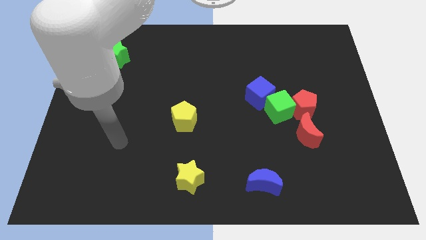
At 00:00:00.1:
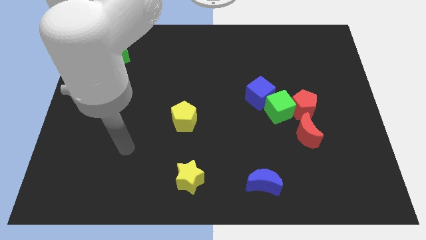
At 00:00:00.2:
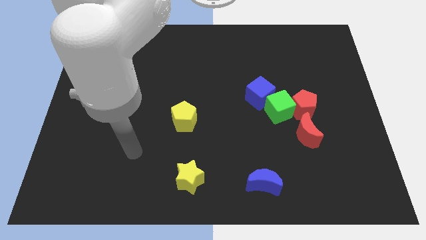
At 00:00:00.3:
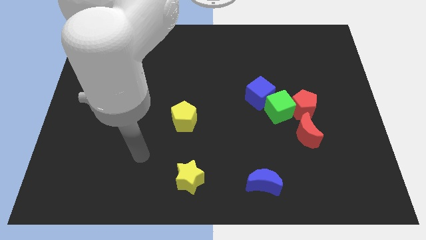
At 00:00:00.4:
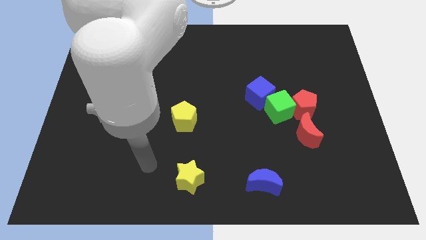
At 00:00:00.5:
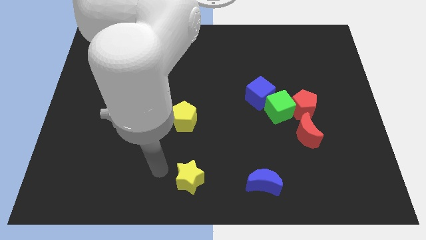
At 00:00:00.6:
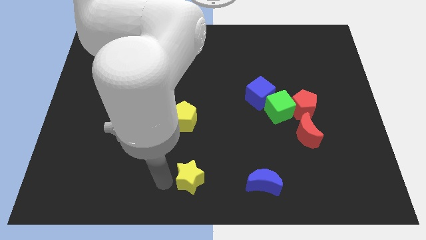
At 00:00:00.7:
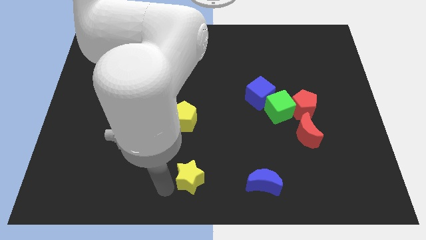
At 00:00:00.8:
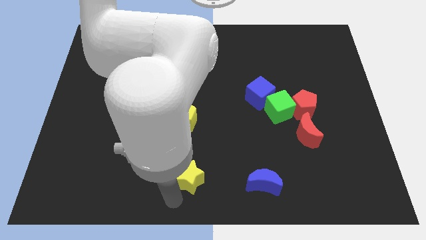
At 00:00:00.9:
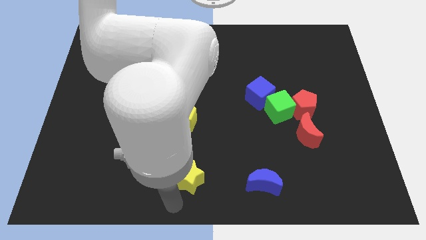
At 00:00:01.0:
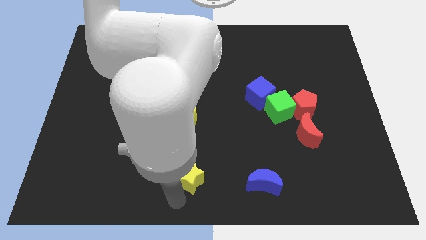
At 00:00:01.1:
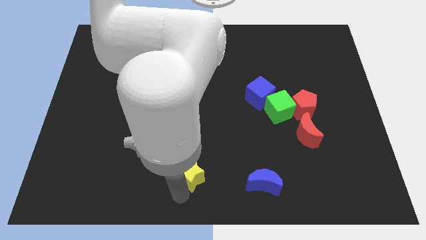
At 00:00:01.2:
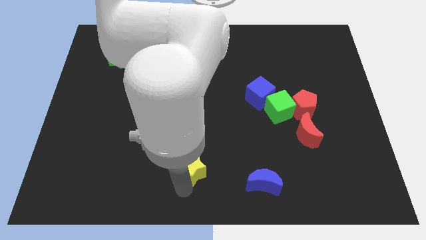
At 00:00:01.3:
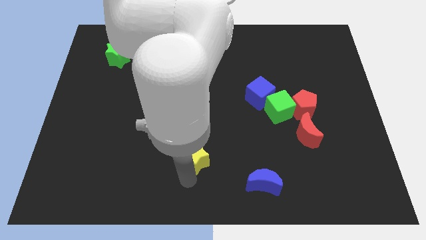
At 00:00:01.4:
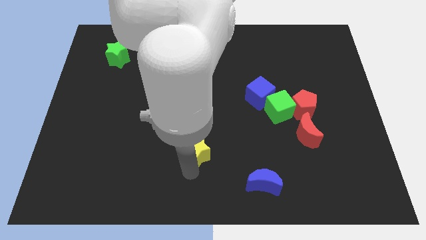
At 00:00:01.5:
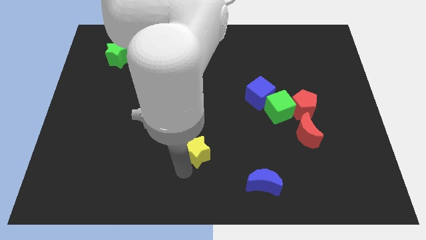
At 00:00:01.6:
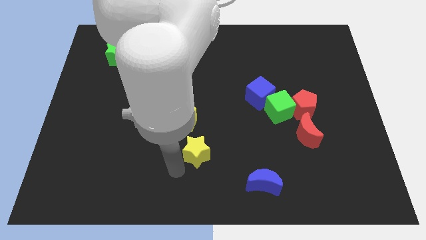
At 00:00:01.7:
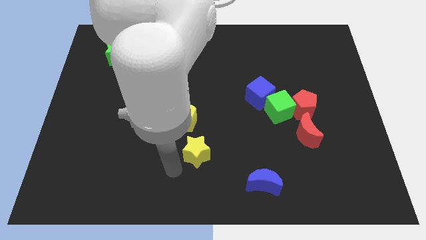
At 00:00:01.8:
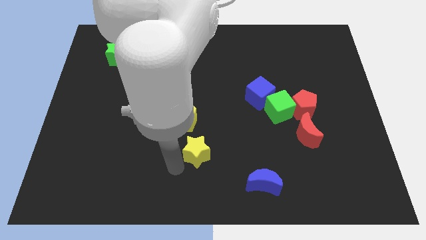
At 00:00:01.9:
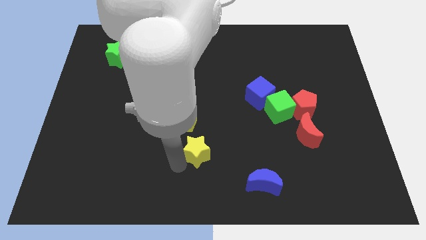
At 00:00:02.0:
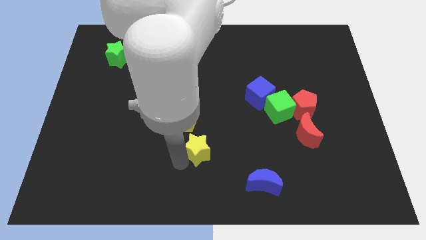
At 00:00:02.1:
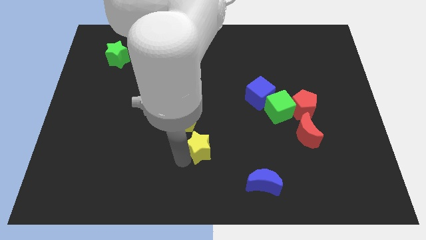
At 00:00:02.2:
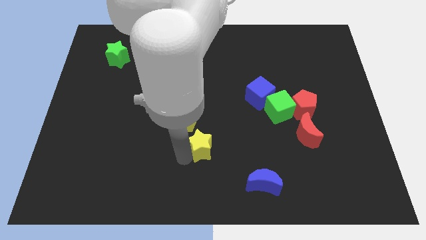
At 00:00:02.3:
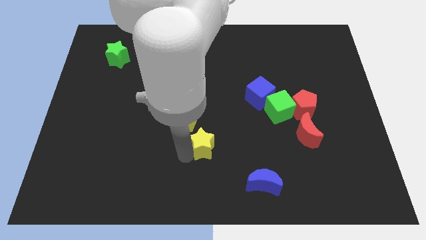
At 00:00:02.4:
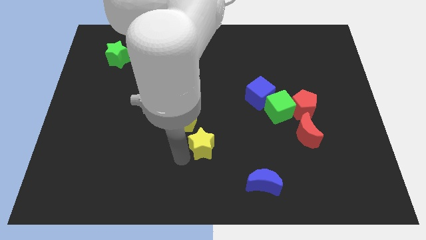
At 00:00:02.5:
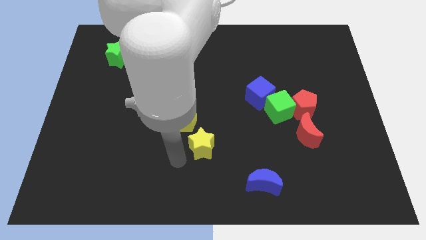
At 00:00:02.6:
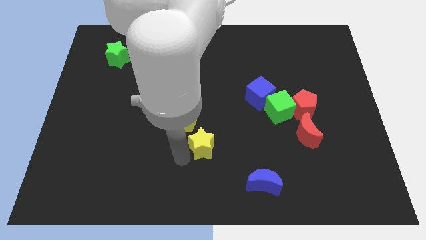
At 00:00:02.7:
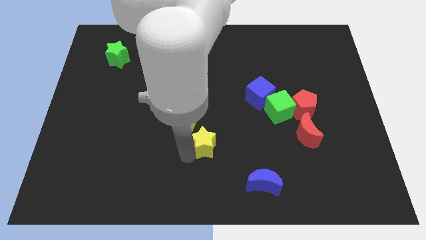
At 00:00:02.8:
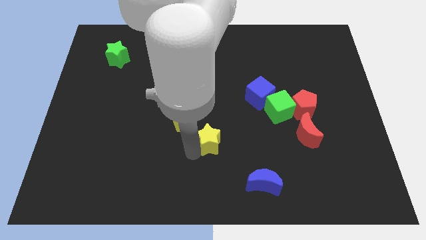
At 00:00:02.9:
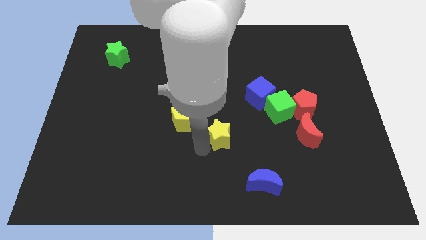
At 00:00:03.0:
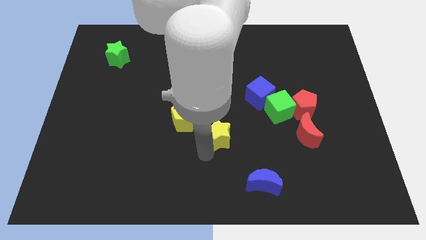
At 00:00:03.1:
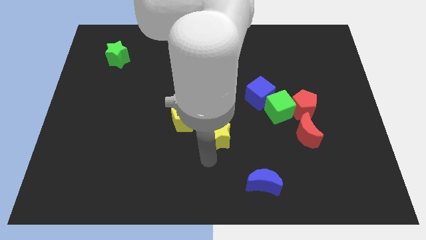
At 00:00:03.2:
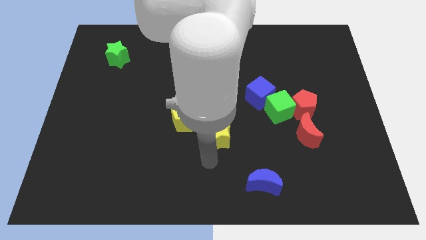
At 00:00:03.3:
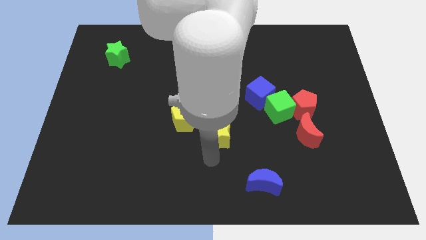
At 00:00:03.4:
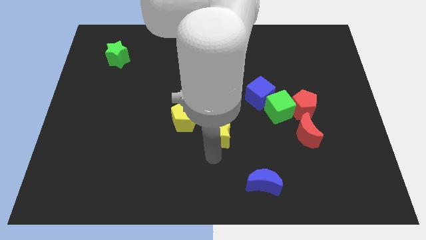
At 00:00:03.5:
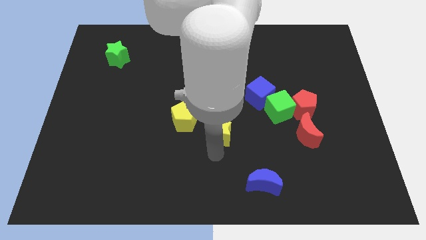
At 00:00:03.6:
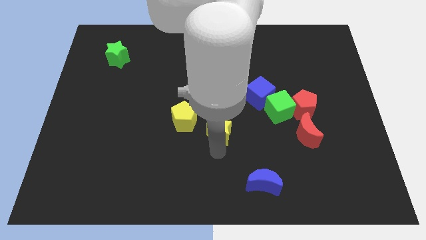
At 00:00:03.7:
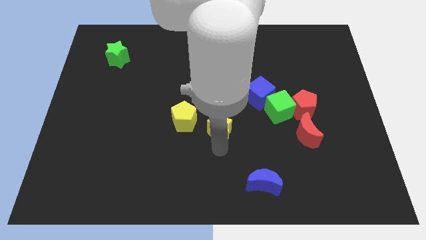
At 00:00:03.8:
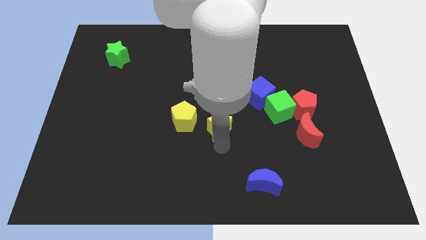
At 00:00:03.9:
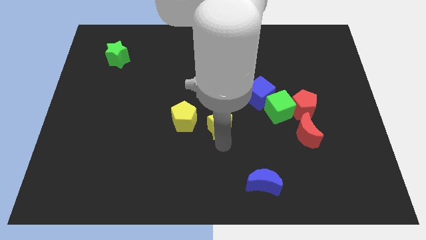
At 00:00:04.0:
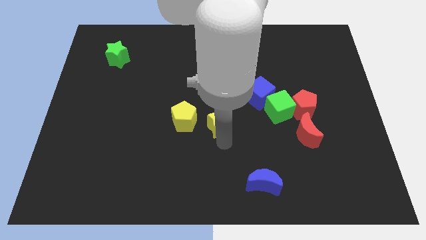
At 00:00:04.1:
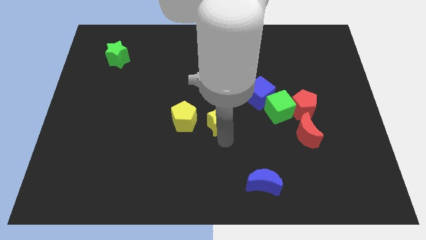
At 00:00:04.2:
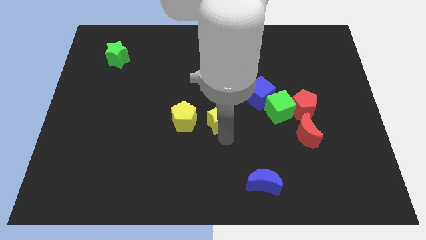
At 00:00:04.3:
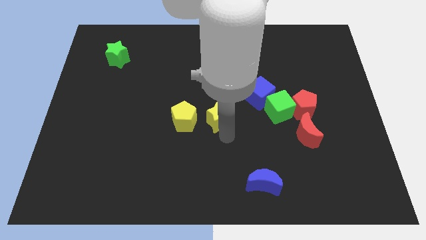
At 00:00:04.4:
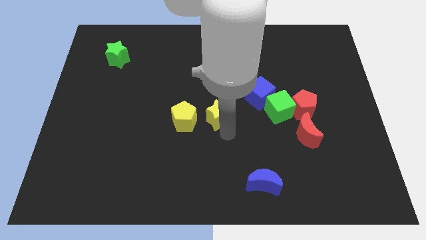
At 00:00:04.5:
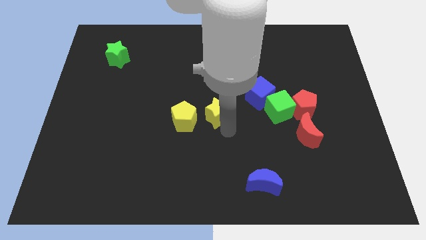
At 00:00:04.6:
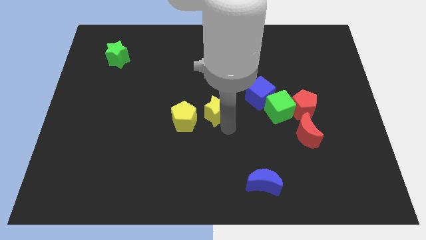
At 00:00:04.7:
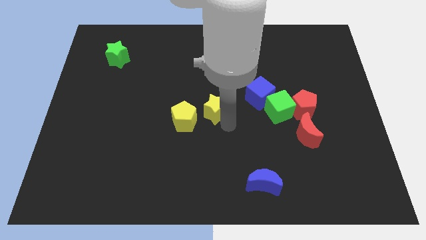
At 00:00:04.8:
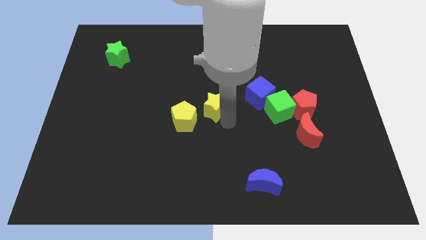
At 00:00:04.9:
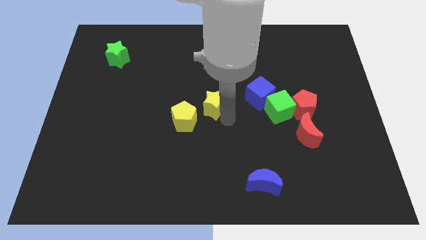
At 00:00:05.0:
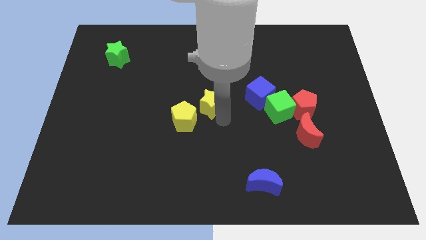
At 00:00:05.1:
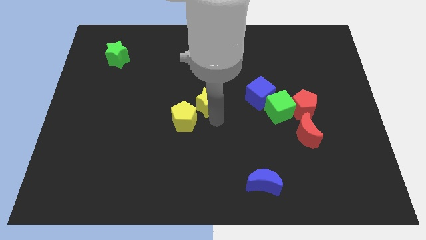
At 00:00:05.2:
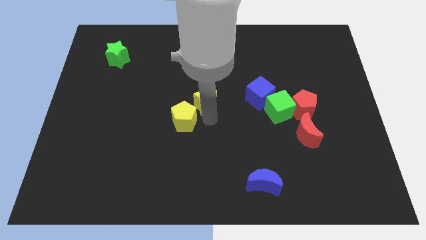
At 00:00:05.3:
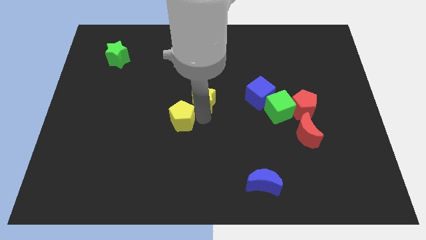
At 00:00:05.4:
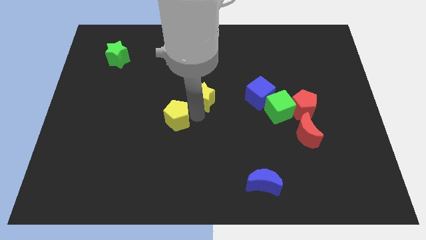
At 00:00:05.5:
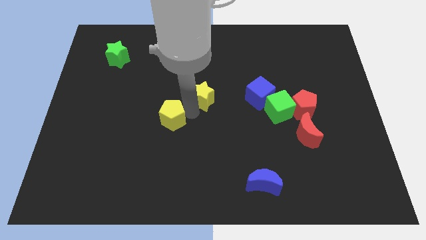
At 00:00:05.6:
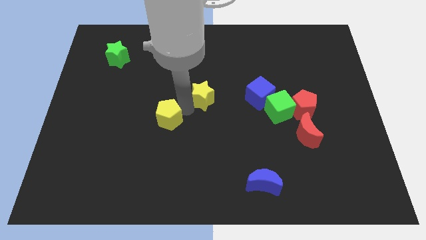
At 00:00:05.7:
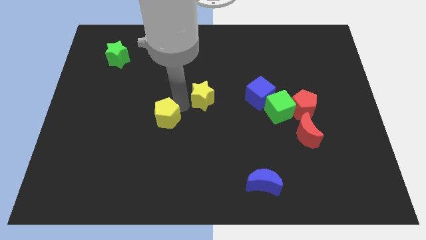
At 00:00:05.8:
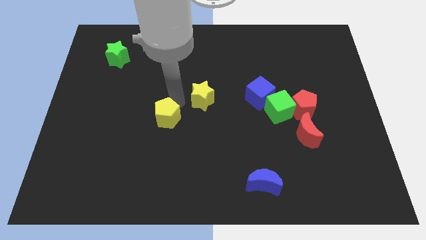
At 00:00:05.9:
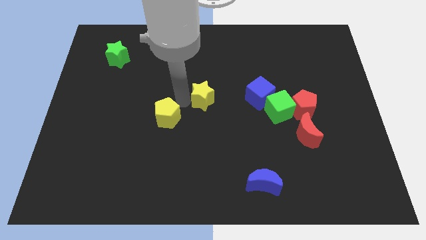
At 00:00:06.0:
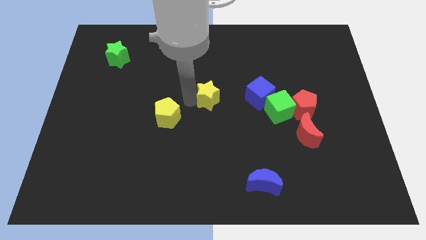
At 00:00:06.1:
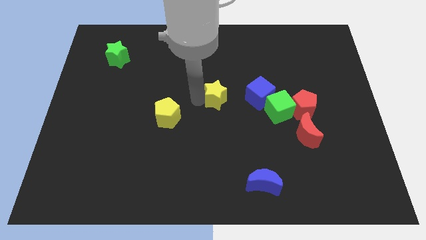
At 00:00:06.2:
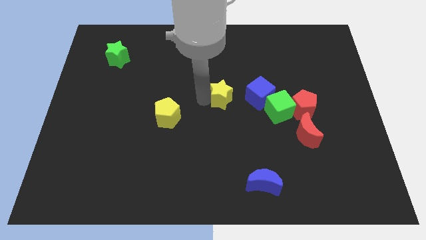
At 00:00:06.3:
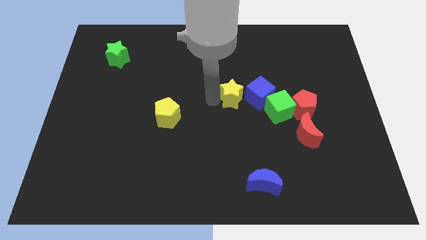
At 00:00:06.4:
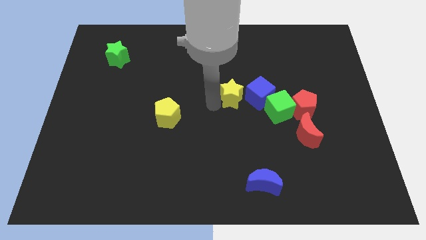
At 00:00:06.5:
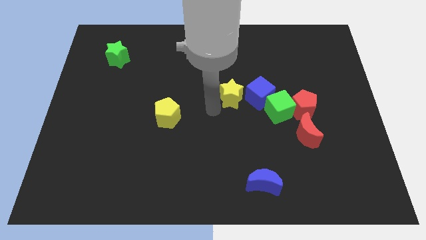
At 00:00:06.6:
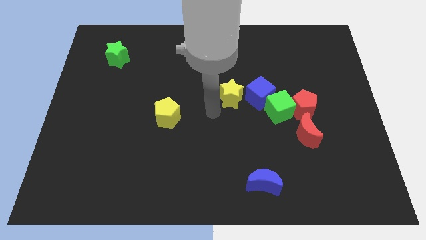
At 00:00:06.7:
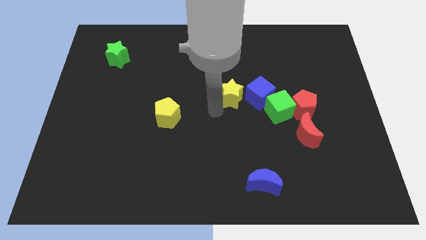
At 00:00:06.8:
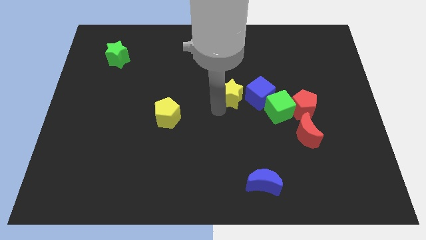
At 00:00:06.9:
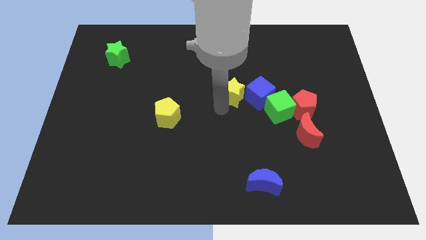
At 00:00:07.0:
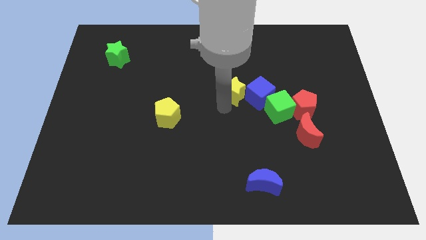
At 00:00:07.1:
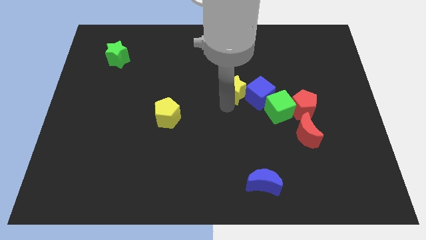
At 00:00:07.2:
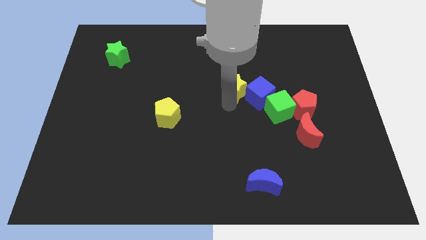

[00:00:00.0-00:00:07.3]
slide the yellow star up and right diagonally

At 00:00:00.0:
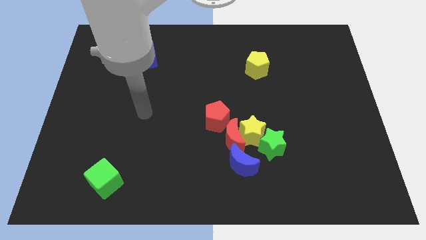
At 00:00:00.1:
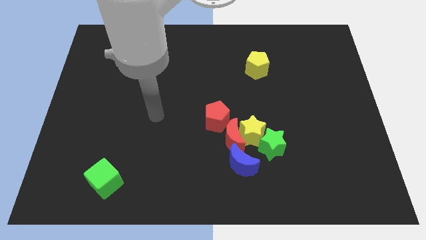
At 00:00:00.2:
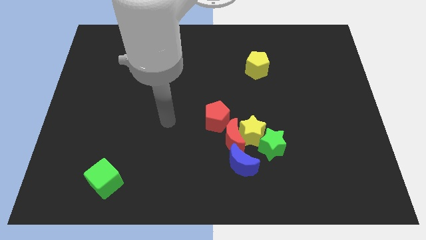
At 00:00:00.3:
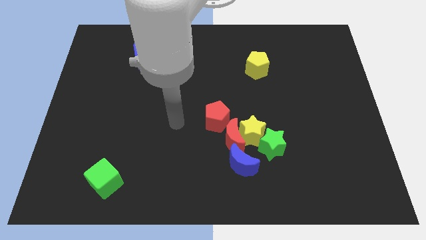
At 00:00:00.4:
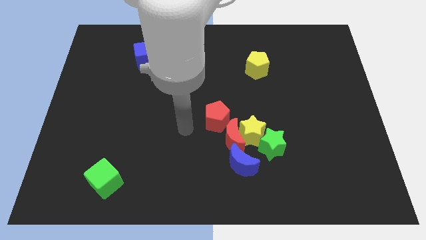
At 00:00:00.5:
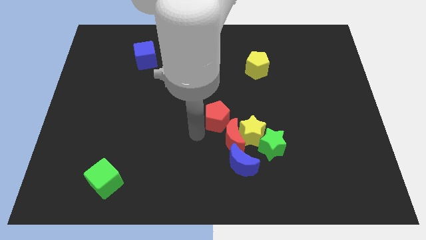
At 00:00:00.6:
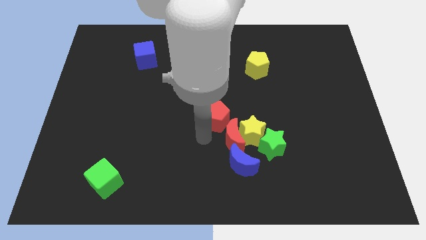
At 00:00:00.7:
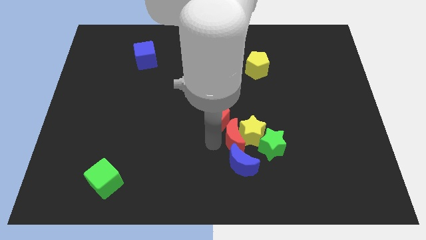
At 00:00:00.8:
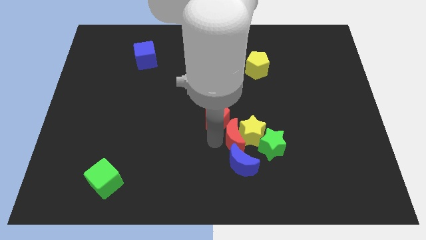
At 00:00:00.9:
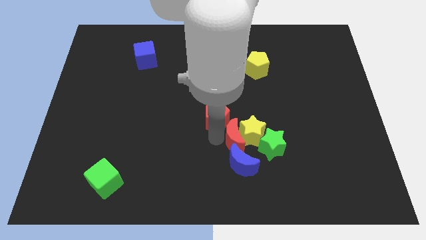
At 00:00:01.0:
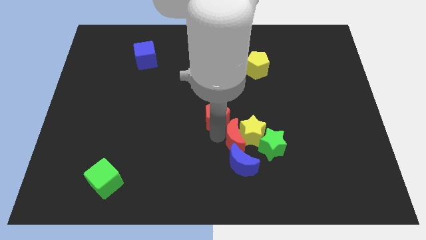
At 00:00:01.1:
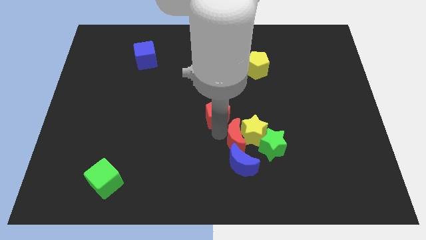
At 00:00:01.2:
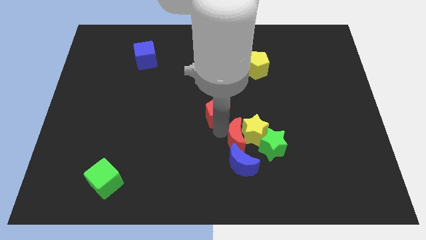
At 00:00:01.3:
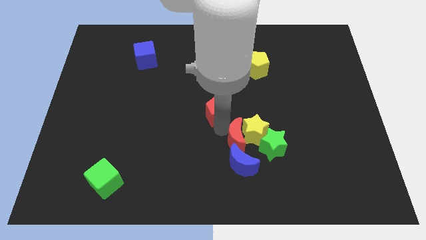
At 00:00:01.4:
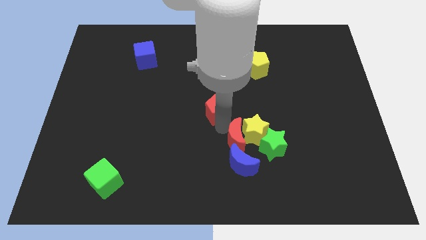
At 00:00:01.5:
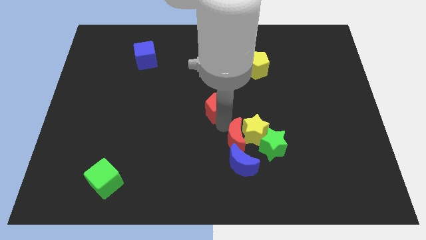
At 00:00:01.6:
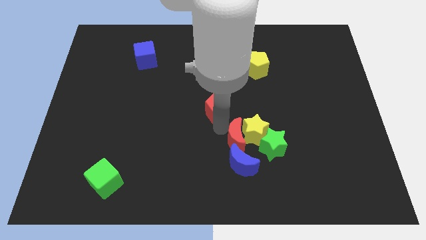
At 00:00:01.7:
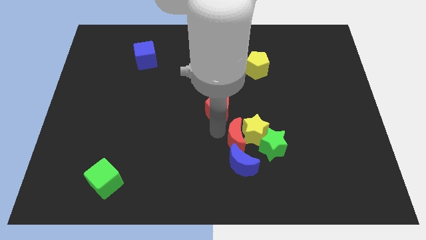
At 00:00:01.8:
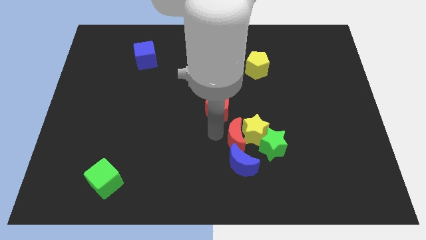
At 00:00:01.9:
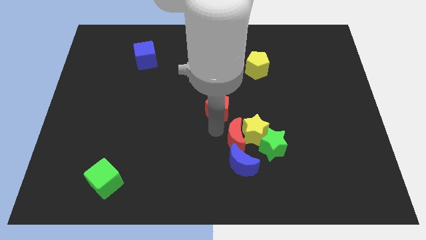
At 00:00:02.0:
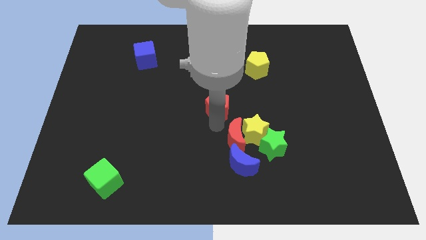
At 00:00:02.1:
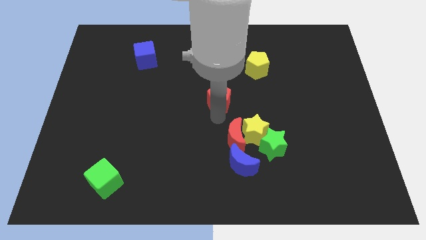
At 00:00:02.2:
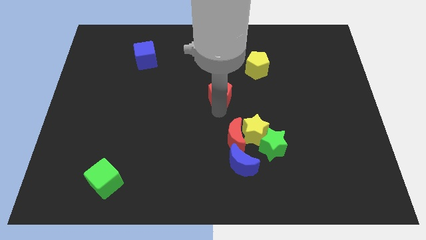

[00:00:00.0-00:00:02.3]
slightly slide the red pentagon up
